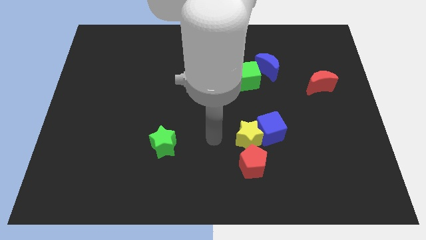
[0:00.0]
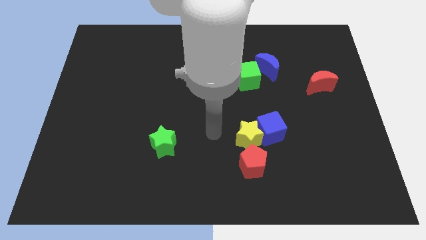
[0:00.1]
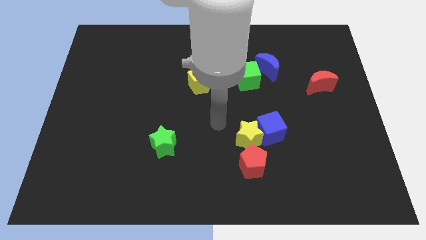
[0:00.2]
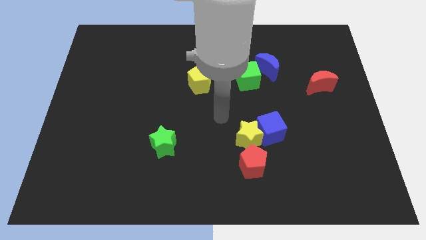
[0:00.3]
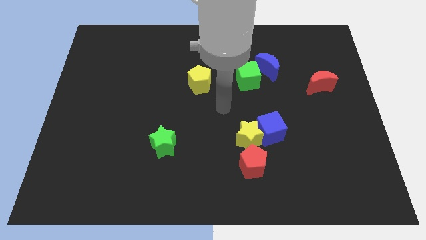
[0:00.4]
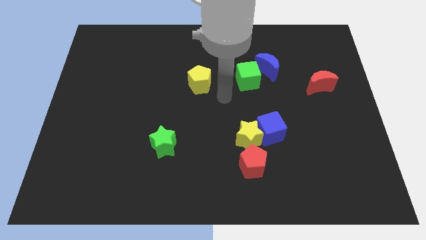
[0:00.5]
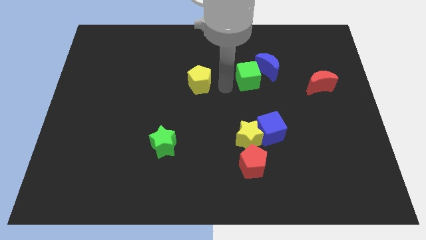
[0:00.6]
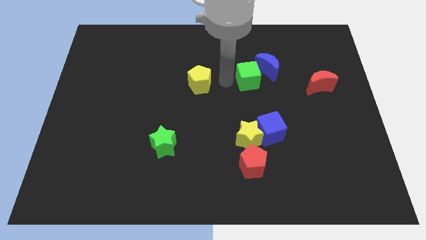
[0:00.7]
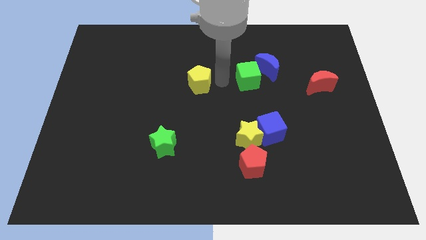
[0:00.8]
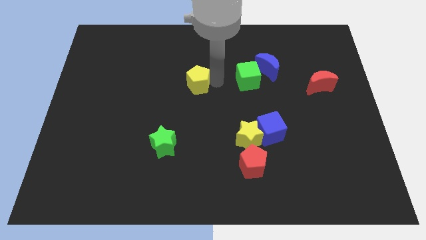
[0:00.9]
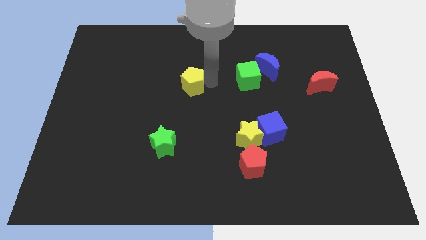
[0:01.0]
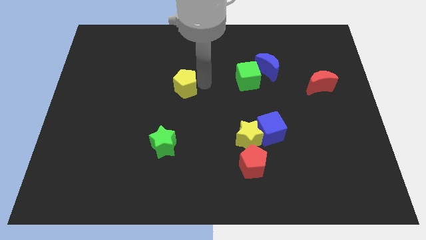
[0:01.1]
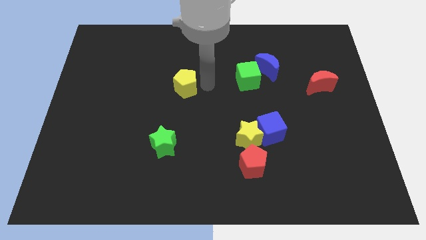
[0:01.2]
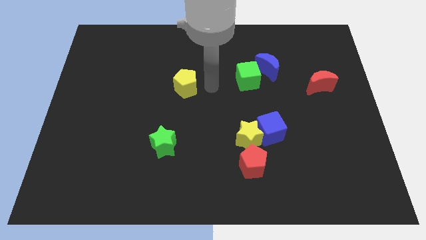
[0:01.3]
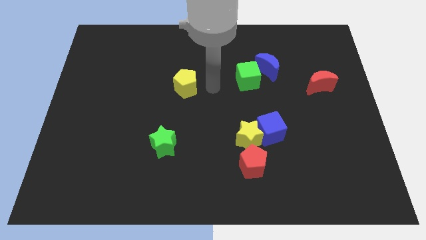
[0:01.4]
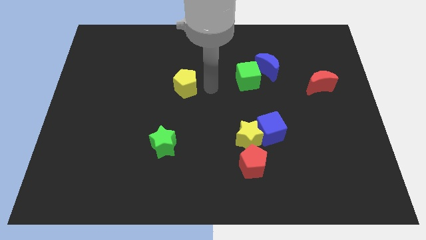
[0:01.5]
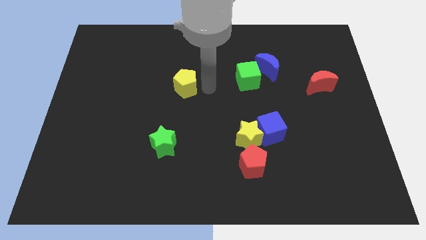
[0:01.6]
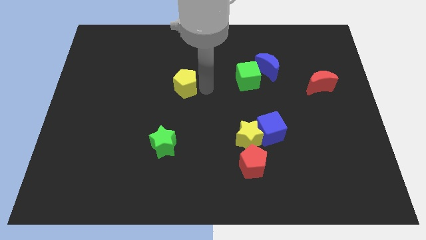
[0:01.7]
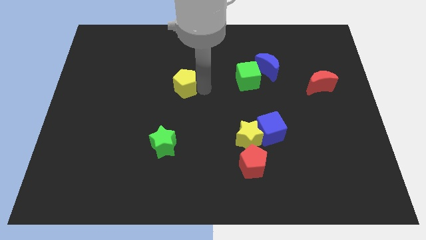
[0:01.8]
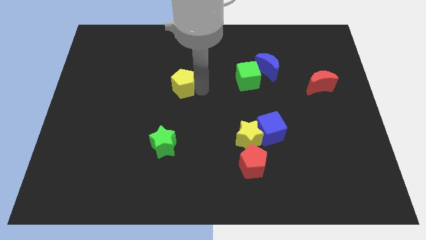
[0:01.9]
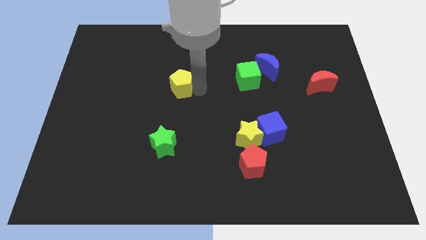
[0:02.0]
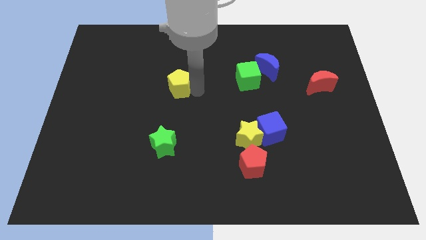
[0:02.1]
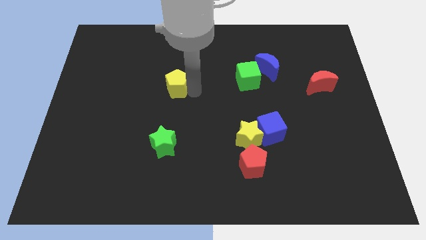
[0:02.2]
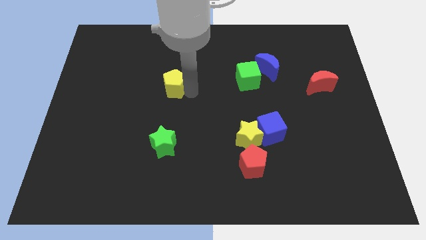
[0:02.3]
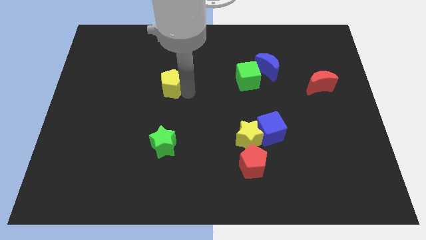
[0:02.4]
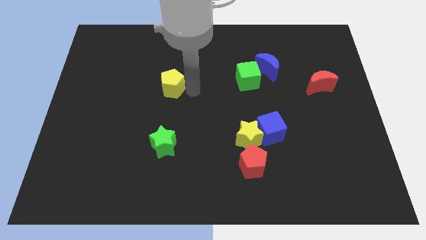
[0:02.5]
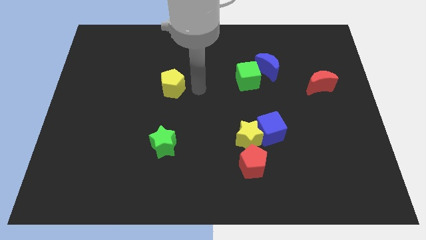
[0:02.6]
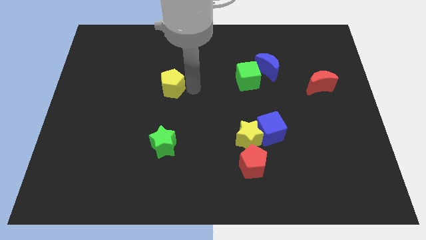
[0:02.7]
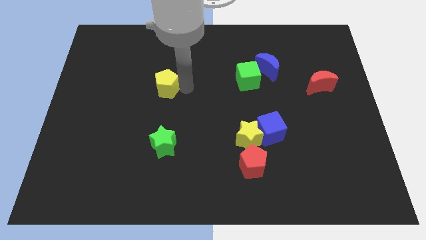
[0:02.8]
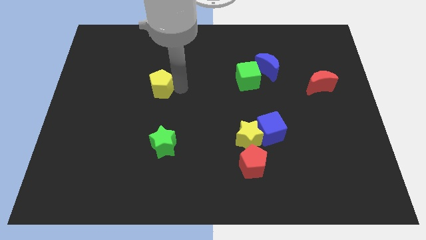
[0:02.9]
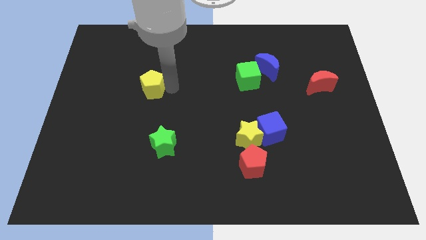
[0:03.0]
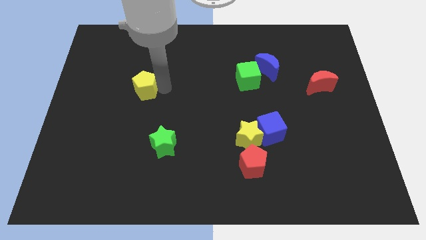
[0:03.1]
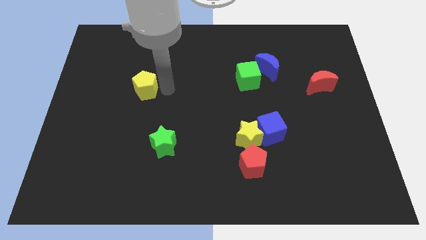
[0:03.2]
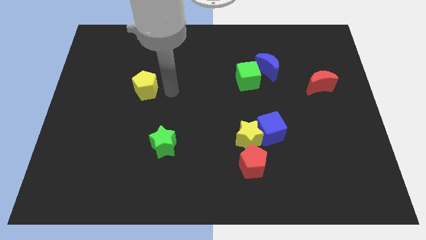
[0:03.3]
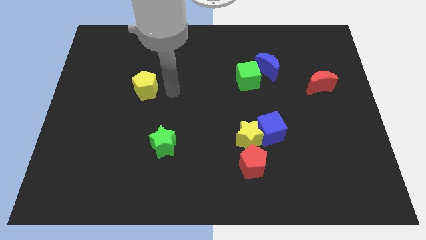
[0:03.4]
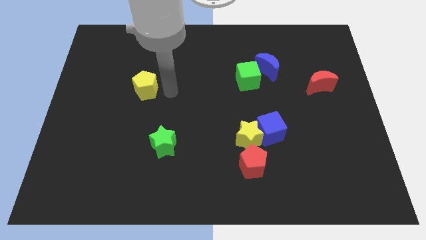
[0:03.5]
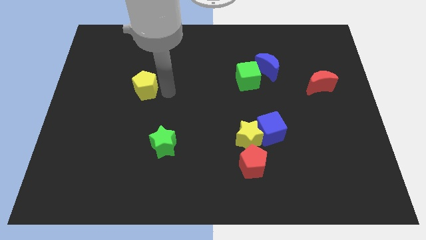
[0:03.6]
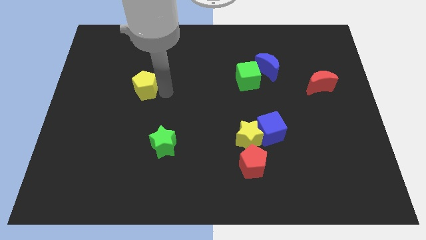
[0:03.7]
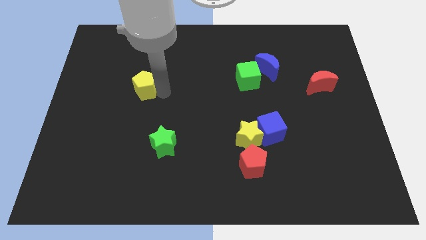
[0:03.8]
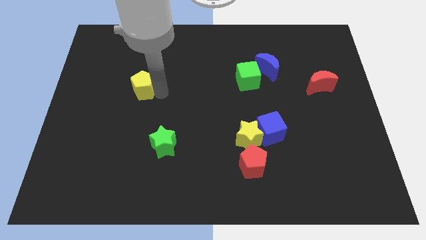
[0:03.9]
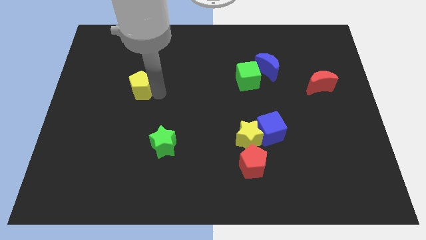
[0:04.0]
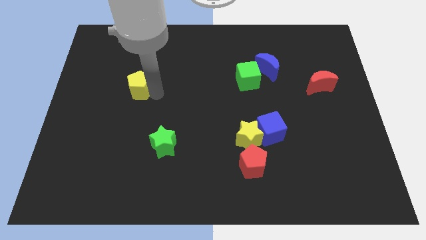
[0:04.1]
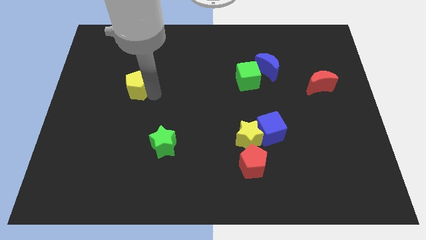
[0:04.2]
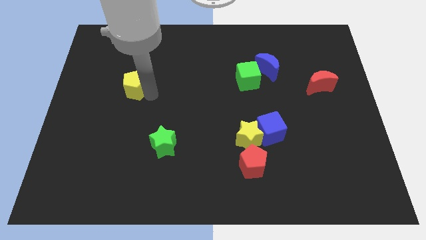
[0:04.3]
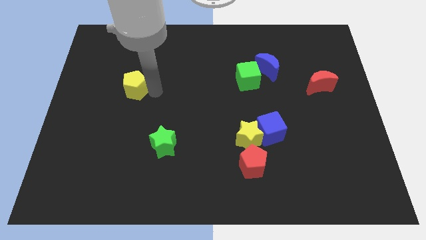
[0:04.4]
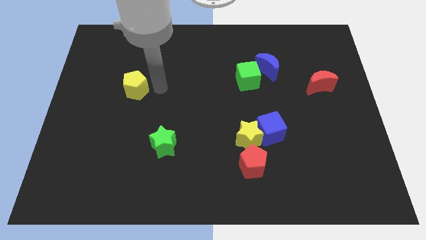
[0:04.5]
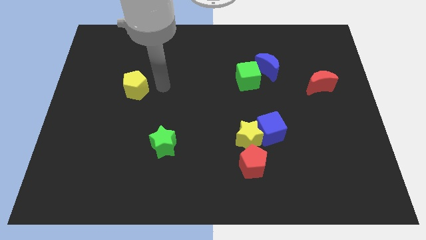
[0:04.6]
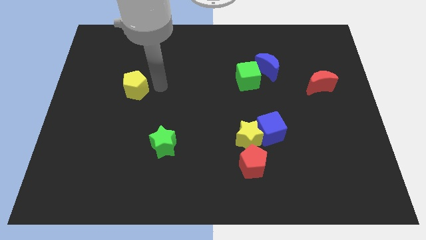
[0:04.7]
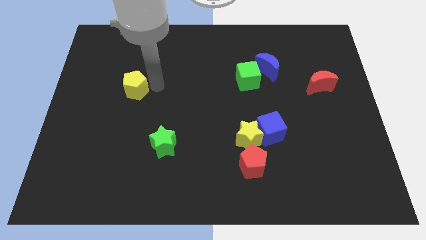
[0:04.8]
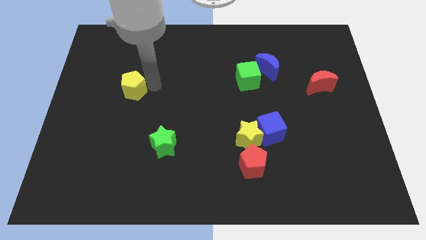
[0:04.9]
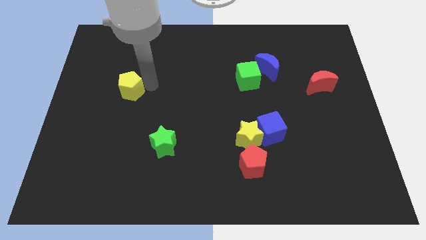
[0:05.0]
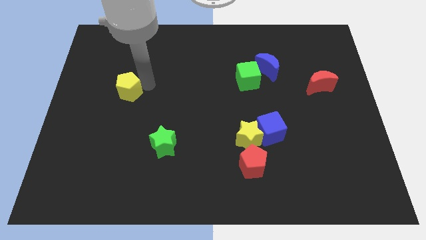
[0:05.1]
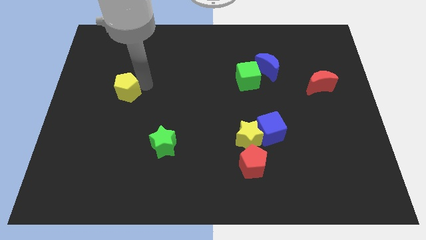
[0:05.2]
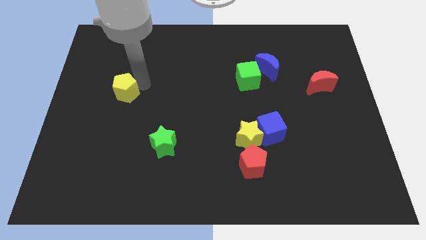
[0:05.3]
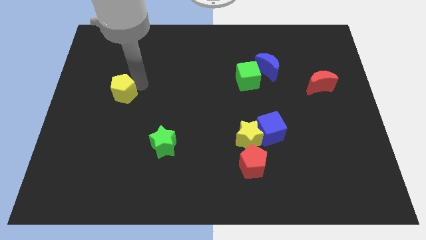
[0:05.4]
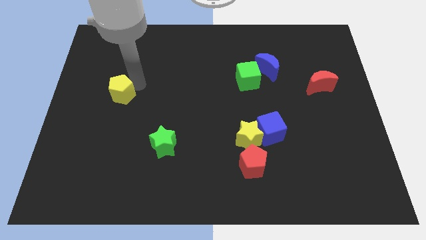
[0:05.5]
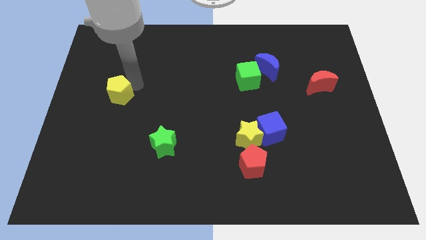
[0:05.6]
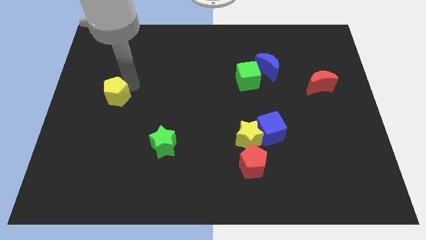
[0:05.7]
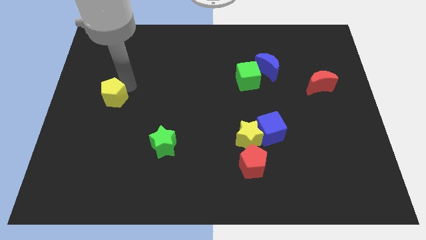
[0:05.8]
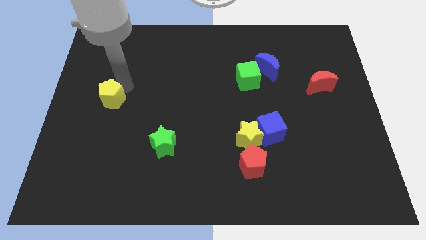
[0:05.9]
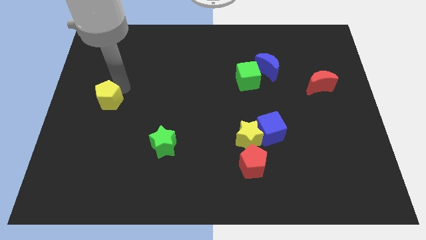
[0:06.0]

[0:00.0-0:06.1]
slide the yellow pentagon to the left side

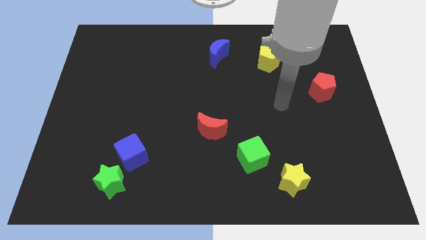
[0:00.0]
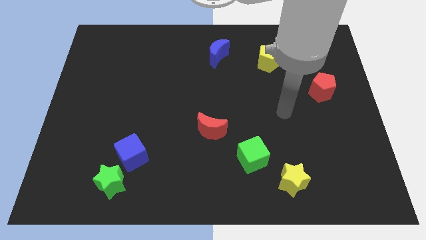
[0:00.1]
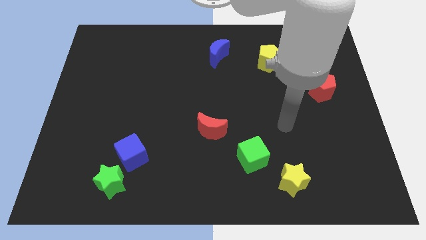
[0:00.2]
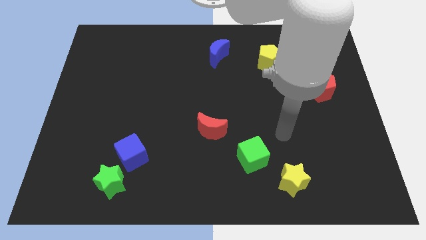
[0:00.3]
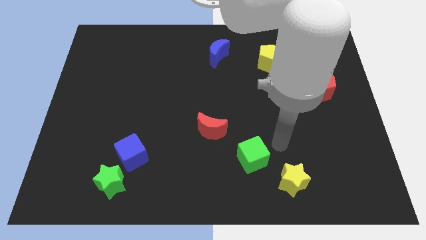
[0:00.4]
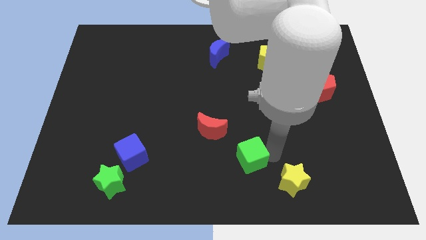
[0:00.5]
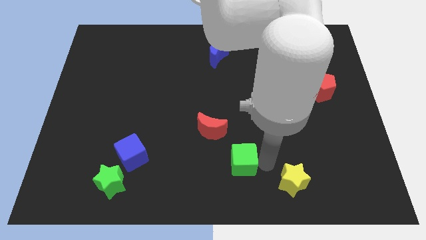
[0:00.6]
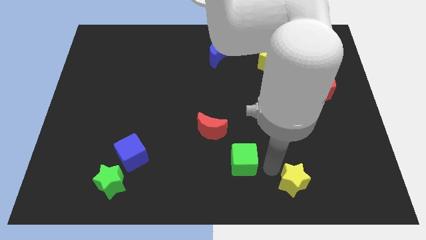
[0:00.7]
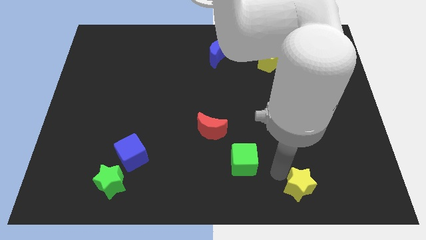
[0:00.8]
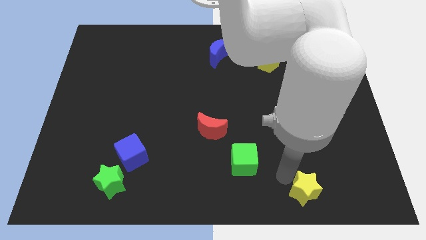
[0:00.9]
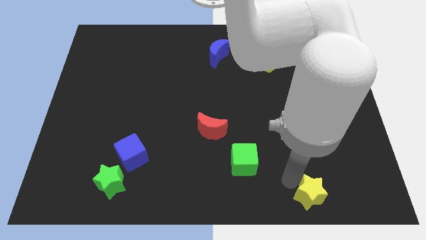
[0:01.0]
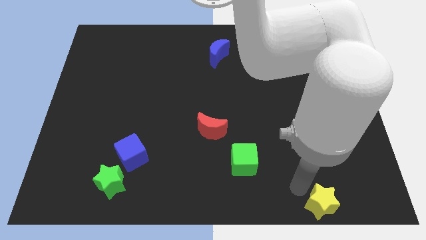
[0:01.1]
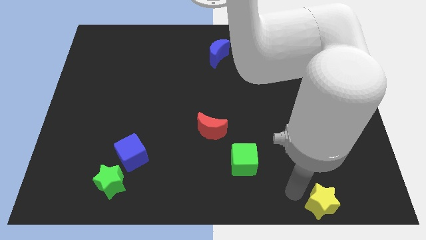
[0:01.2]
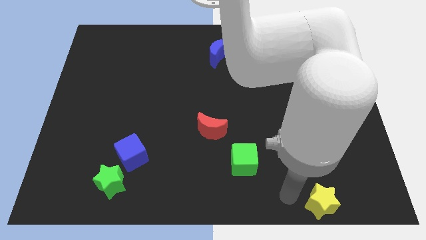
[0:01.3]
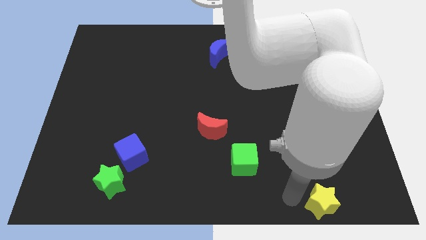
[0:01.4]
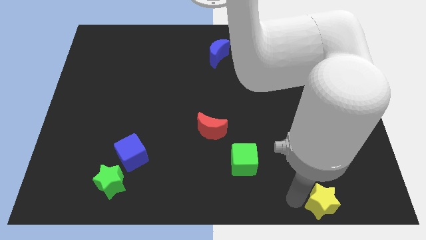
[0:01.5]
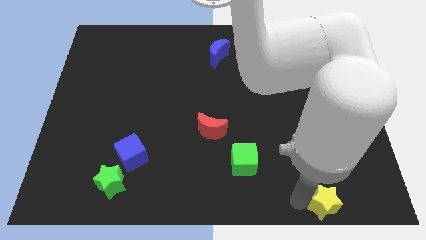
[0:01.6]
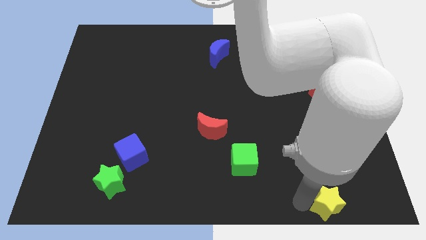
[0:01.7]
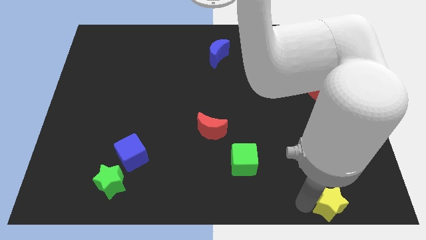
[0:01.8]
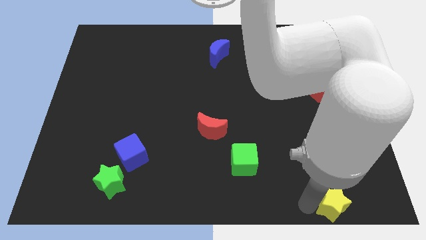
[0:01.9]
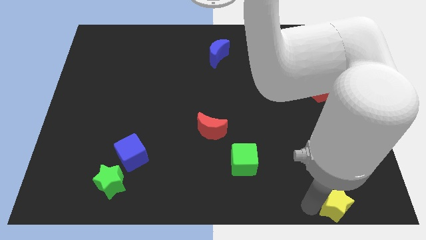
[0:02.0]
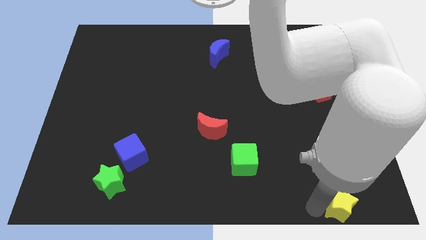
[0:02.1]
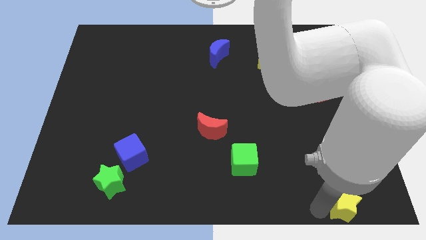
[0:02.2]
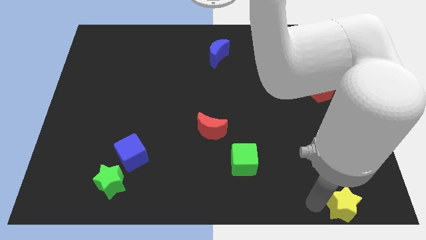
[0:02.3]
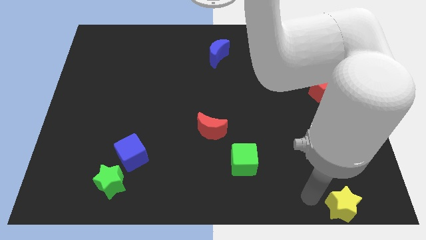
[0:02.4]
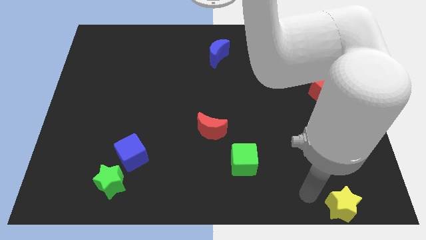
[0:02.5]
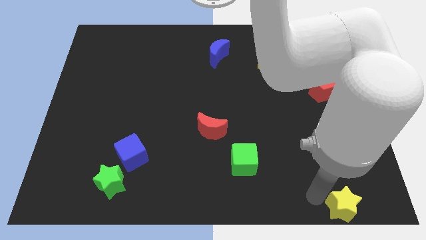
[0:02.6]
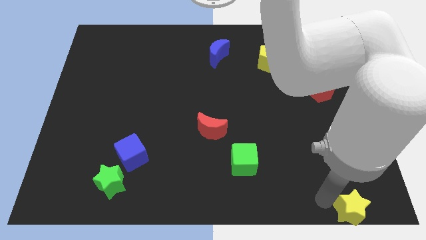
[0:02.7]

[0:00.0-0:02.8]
slide the yellow star to the bottom right of the board
